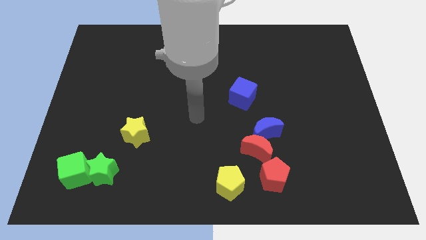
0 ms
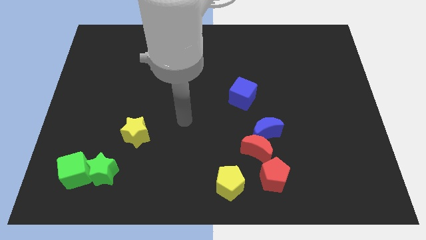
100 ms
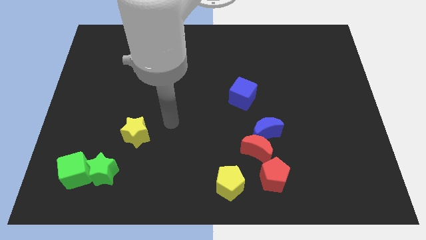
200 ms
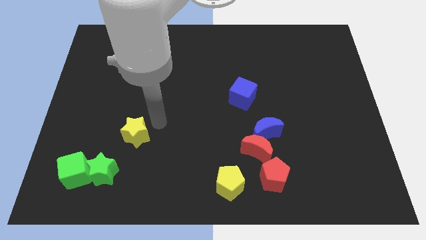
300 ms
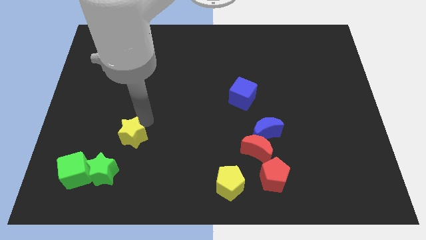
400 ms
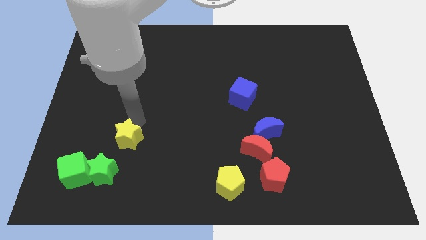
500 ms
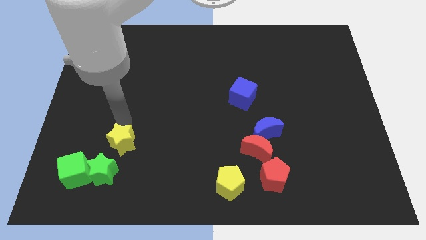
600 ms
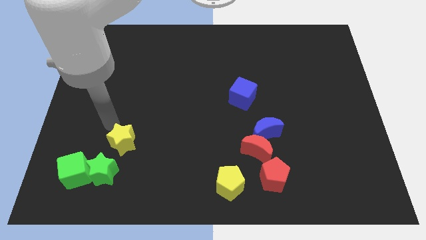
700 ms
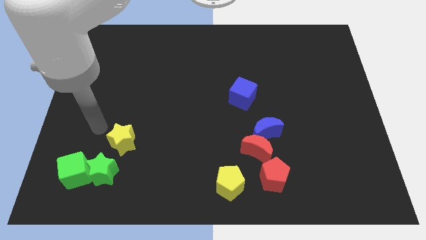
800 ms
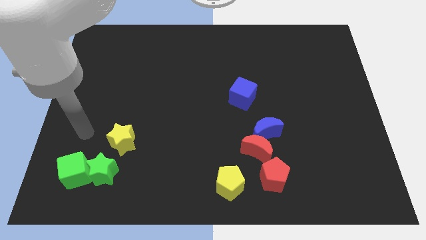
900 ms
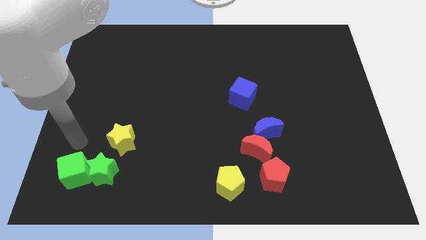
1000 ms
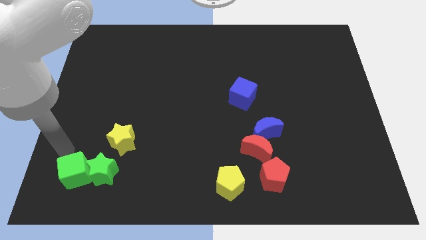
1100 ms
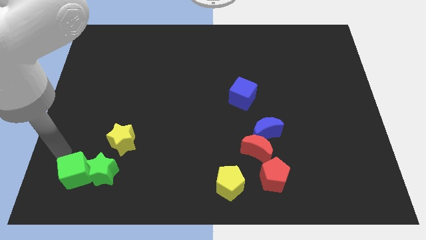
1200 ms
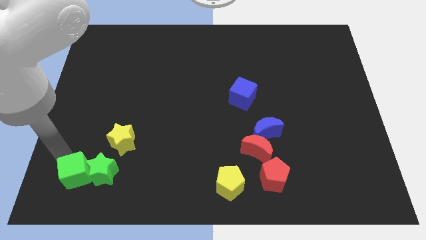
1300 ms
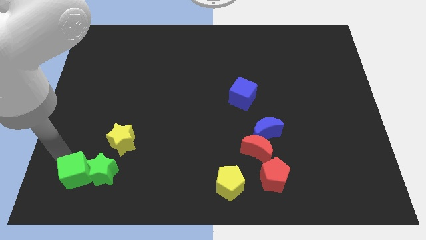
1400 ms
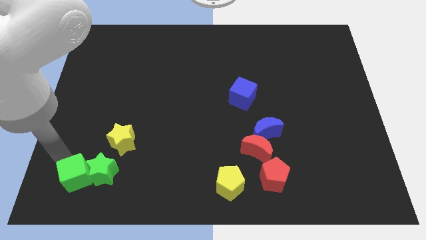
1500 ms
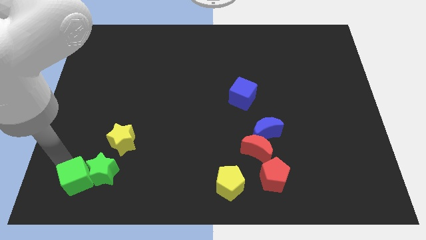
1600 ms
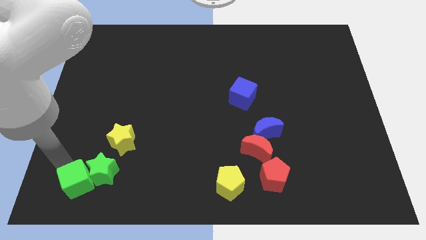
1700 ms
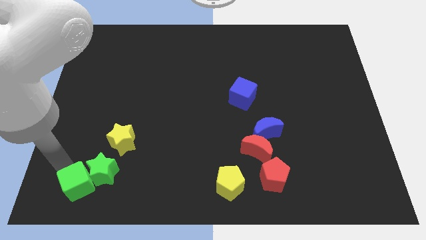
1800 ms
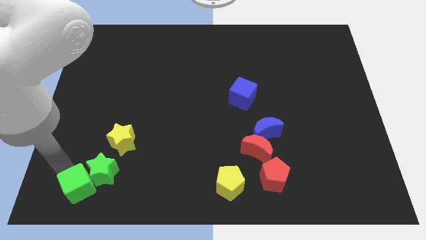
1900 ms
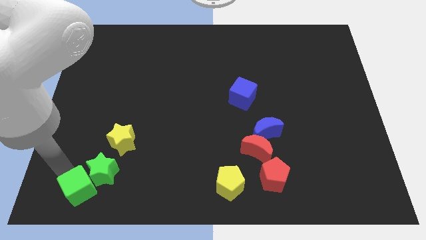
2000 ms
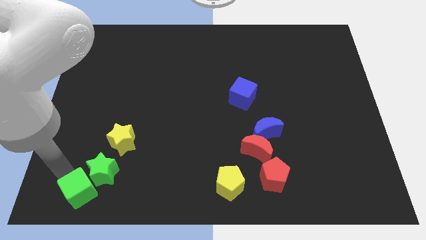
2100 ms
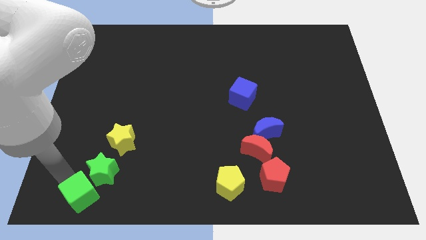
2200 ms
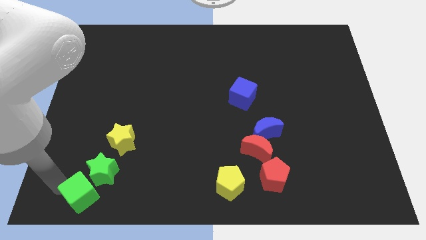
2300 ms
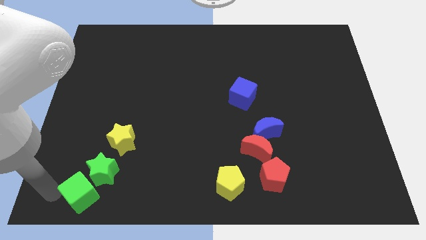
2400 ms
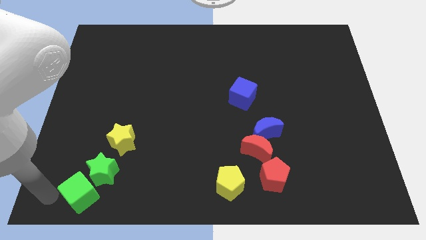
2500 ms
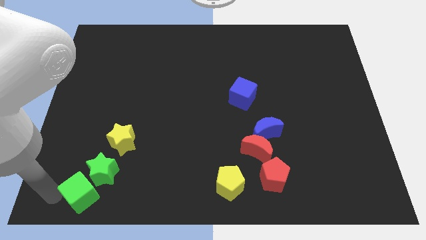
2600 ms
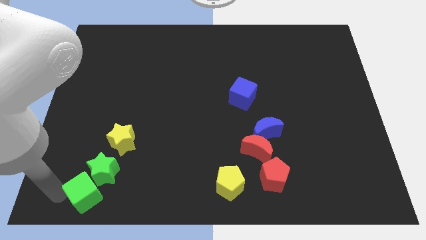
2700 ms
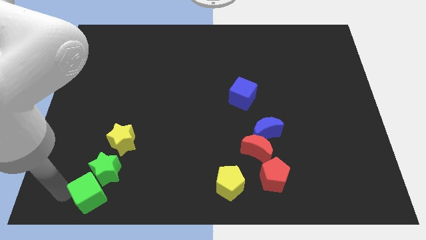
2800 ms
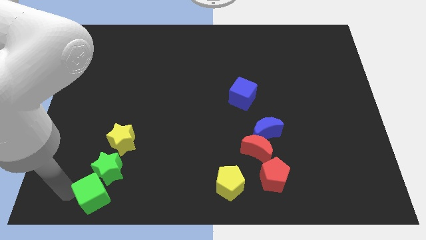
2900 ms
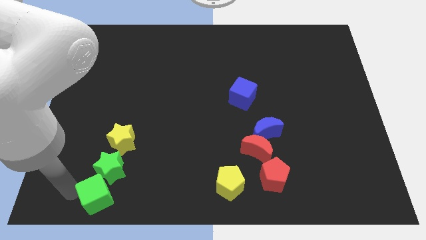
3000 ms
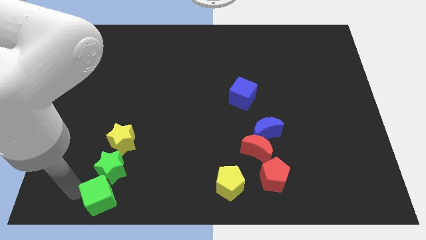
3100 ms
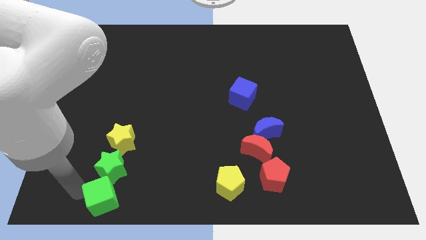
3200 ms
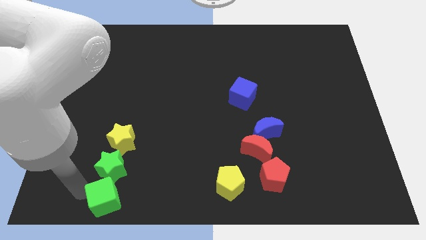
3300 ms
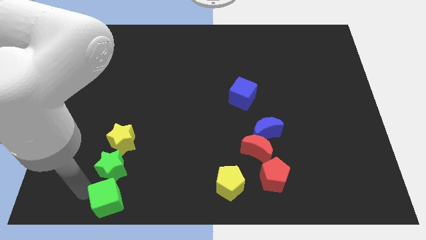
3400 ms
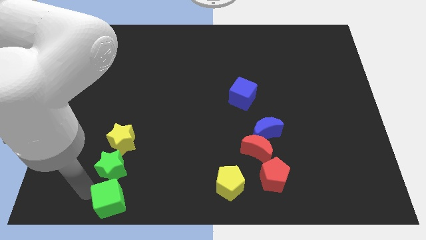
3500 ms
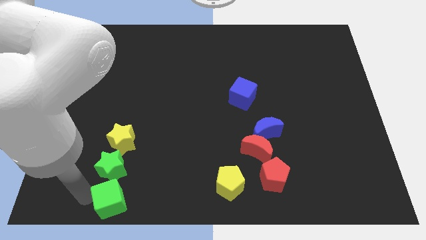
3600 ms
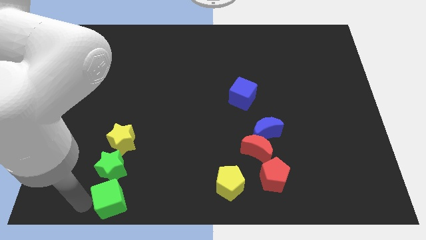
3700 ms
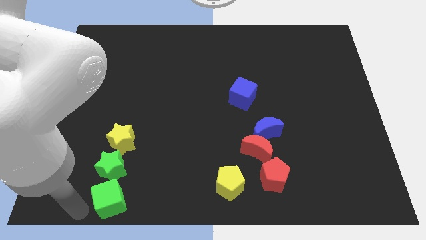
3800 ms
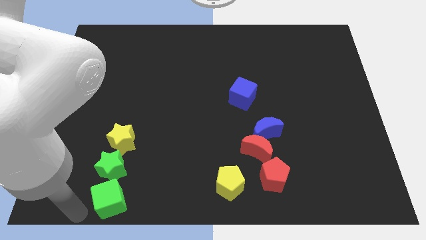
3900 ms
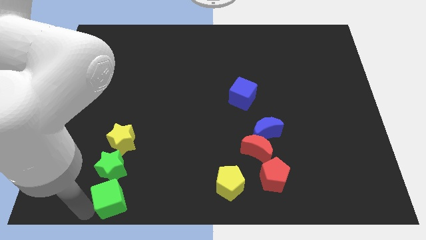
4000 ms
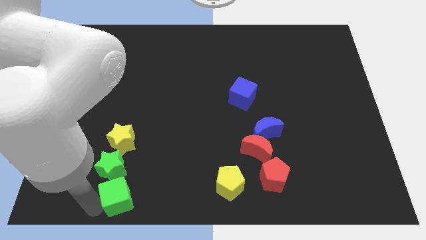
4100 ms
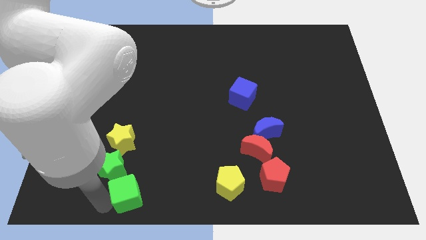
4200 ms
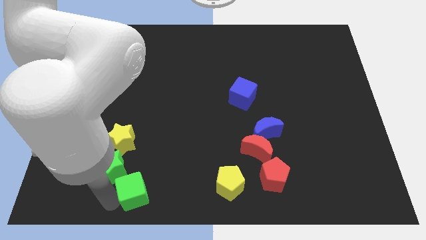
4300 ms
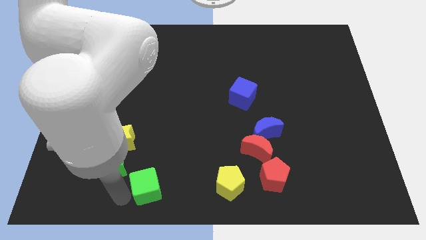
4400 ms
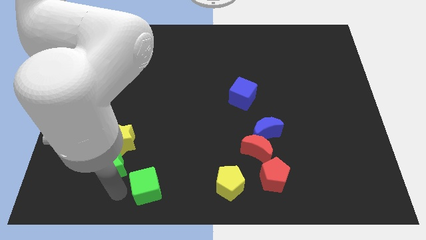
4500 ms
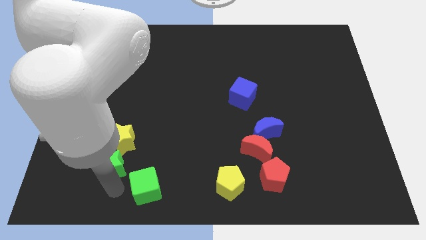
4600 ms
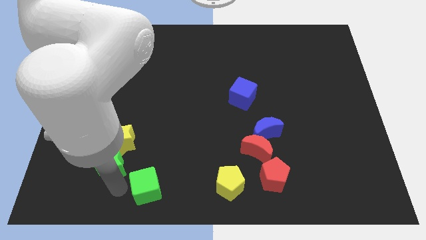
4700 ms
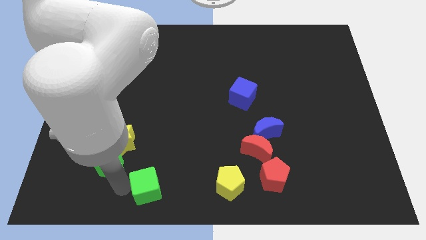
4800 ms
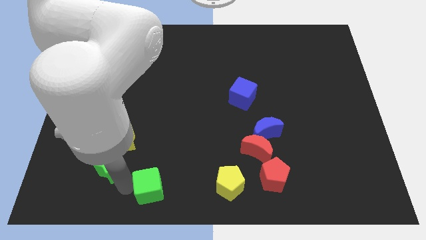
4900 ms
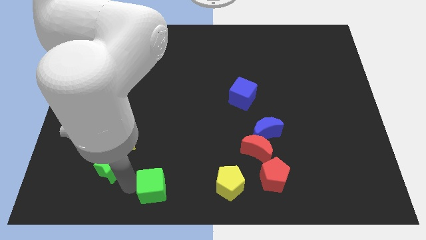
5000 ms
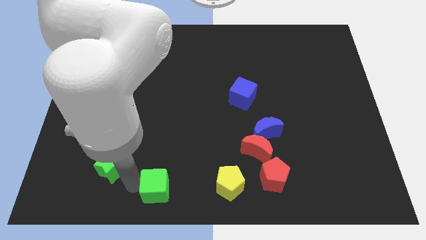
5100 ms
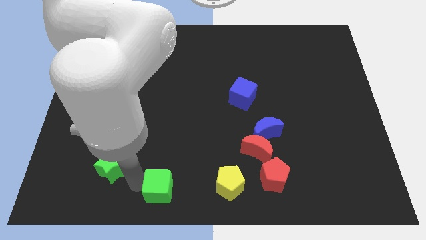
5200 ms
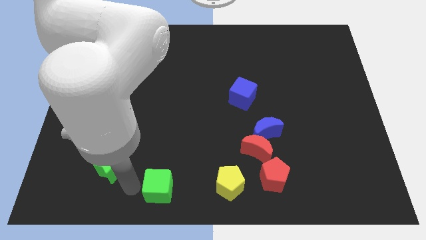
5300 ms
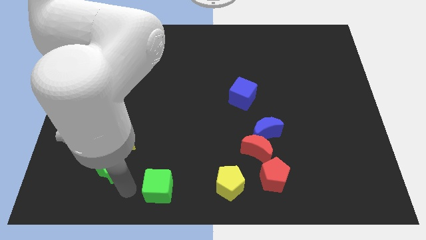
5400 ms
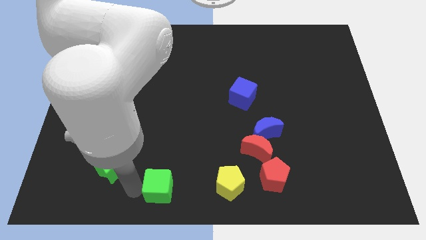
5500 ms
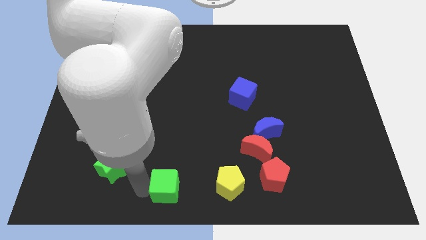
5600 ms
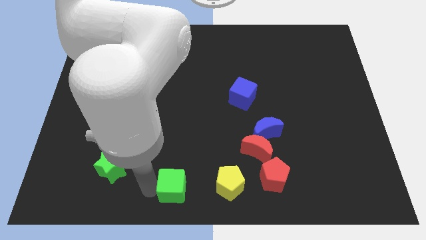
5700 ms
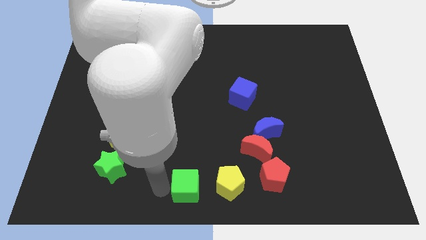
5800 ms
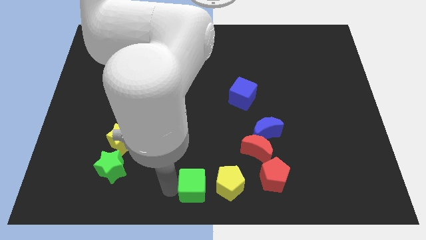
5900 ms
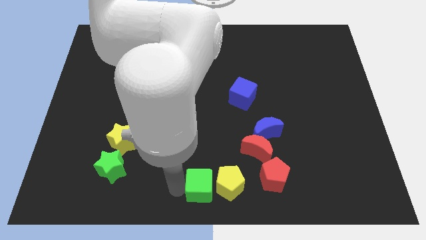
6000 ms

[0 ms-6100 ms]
push the green cube towards the yellow pentagon

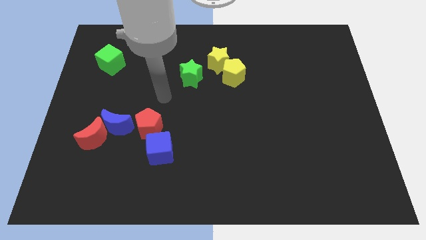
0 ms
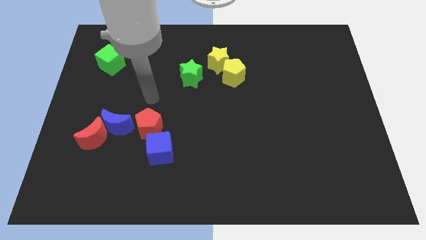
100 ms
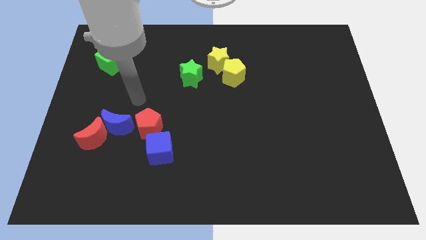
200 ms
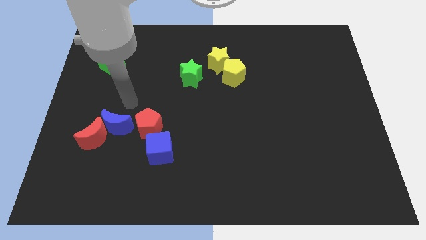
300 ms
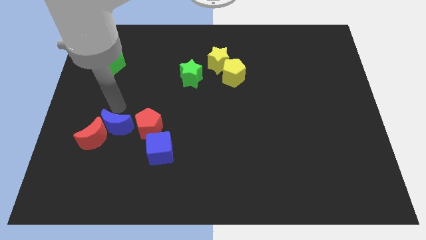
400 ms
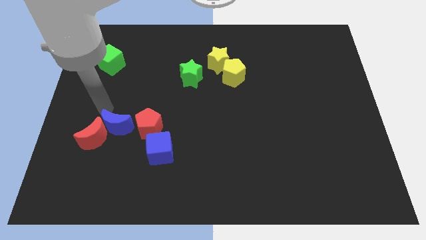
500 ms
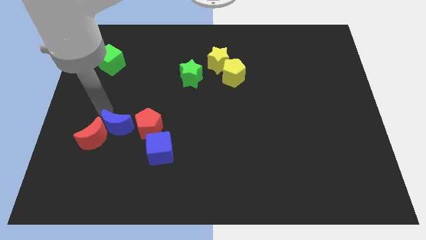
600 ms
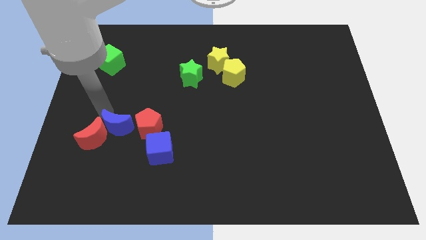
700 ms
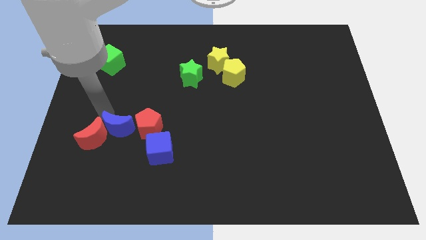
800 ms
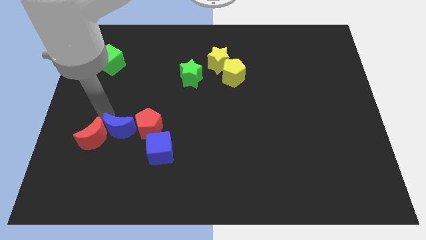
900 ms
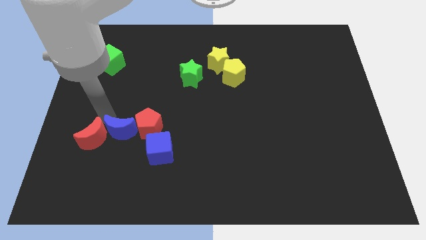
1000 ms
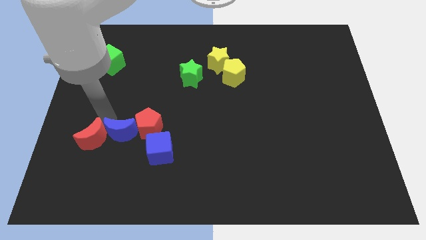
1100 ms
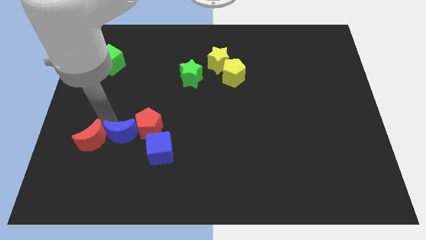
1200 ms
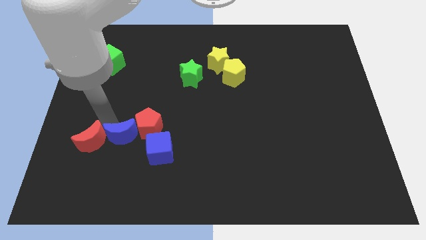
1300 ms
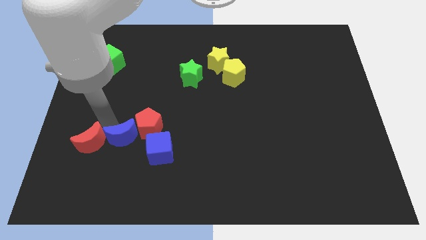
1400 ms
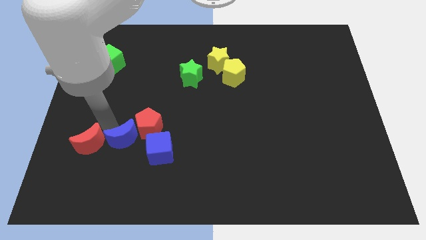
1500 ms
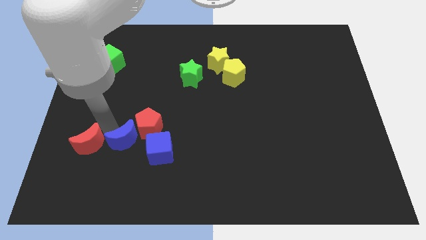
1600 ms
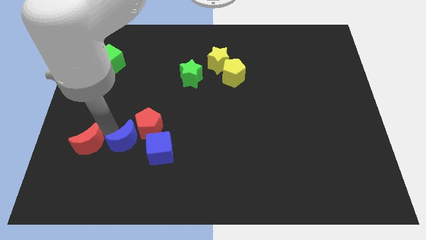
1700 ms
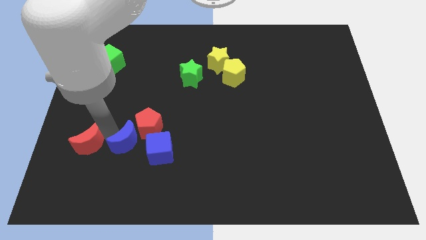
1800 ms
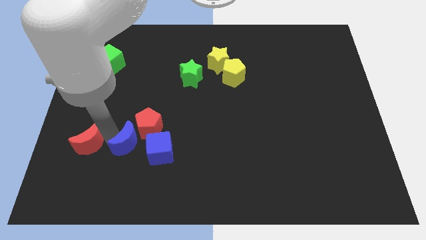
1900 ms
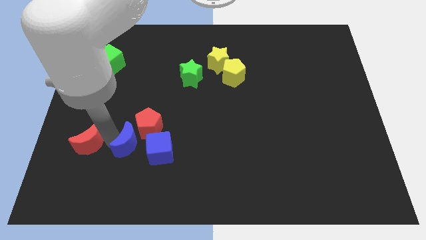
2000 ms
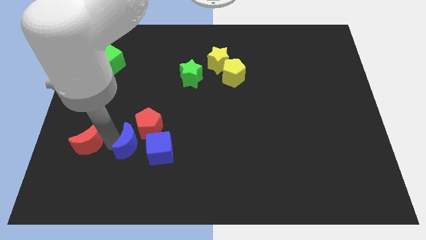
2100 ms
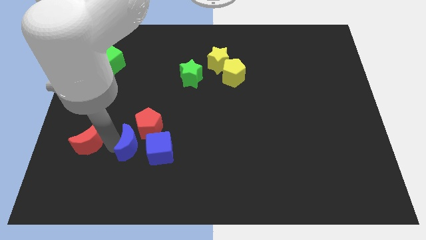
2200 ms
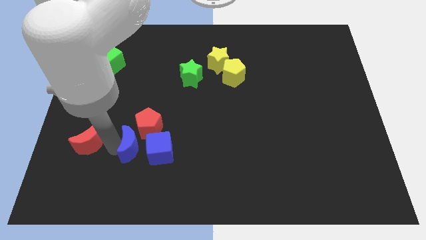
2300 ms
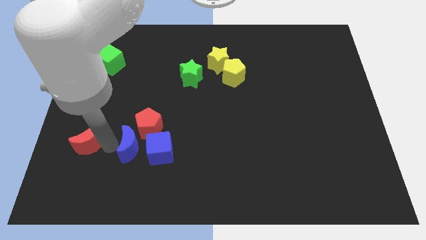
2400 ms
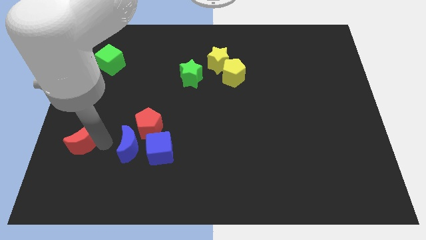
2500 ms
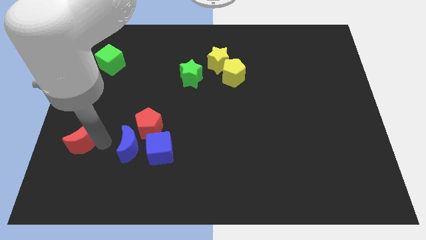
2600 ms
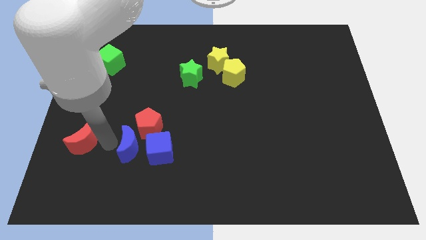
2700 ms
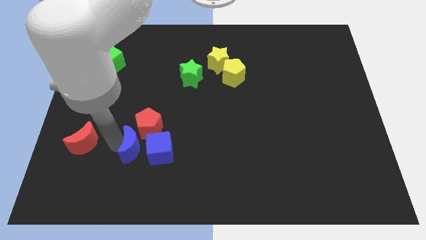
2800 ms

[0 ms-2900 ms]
slide the blue moon to the blue cube
